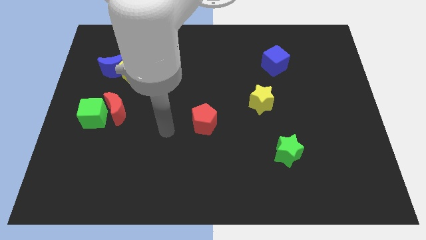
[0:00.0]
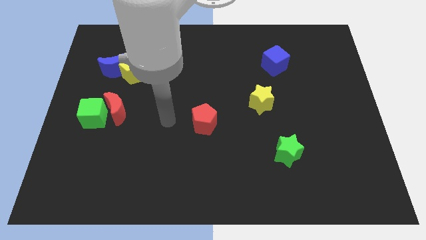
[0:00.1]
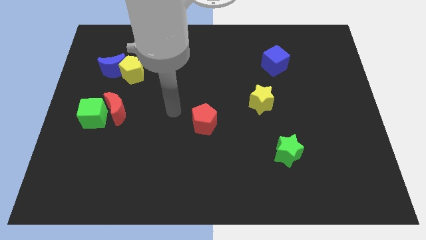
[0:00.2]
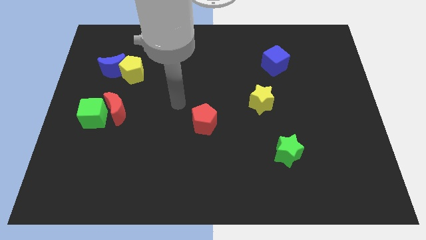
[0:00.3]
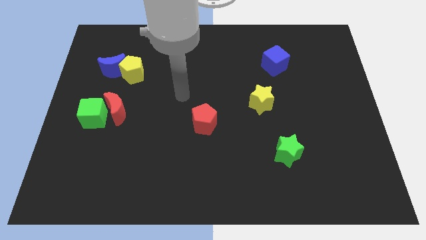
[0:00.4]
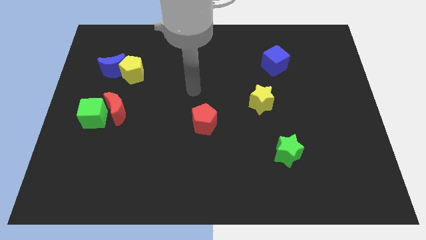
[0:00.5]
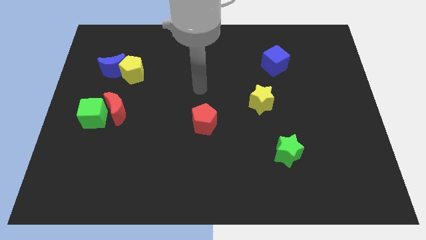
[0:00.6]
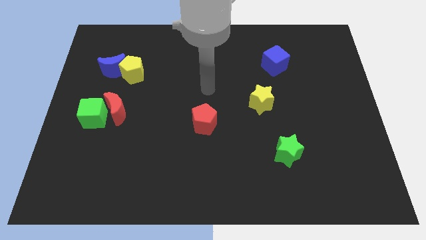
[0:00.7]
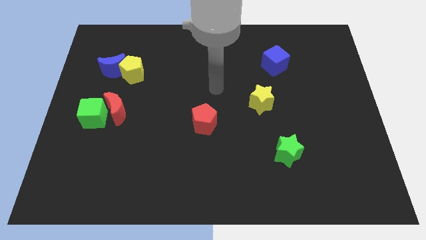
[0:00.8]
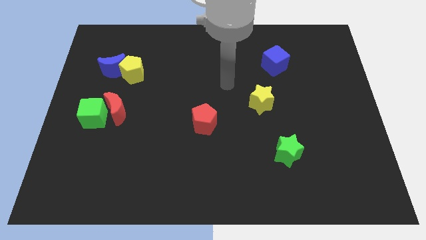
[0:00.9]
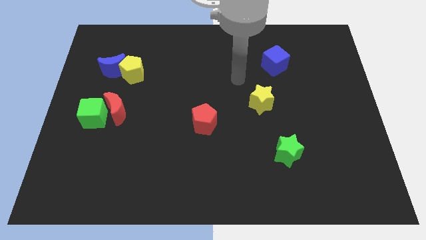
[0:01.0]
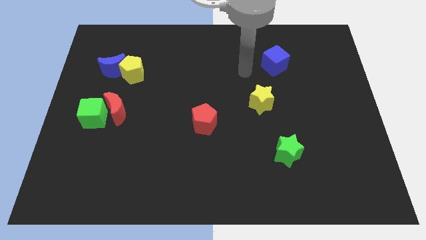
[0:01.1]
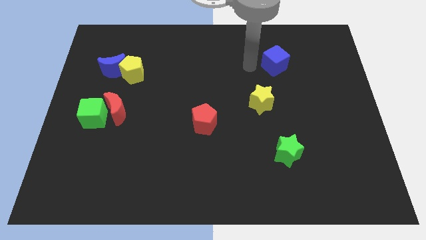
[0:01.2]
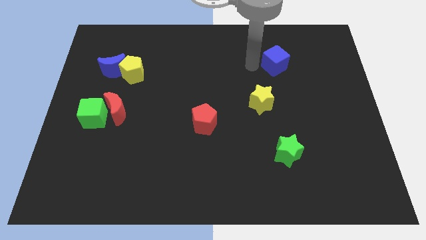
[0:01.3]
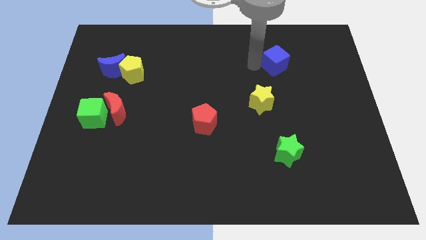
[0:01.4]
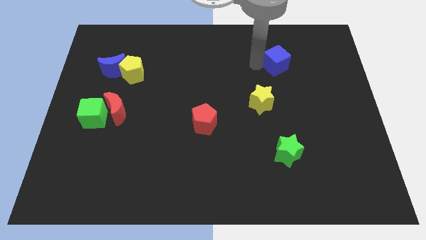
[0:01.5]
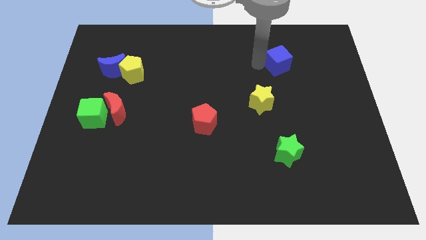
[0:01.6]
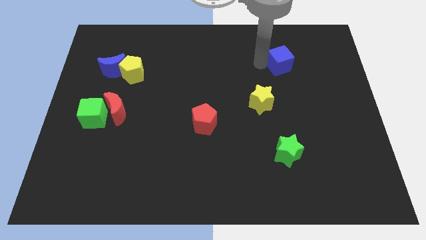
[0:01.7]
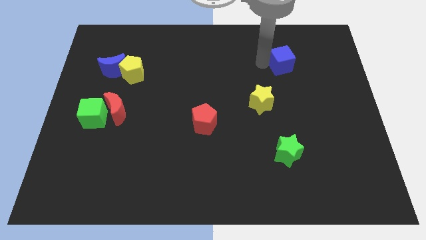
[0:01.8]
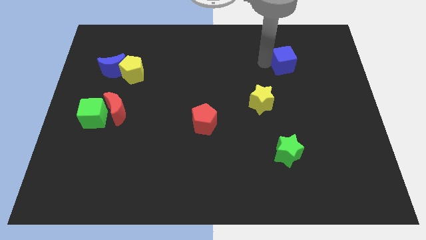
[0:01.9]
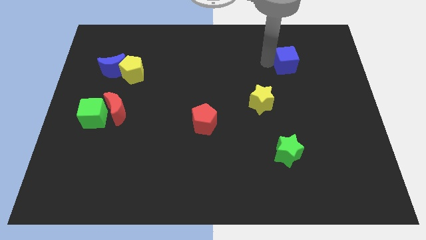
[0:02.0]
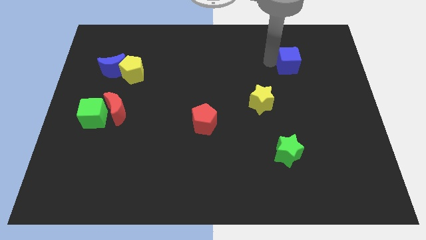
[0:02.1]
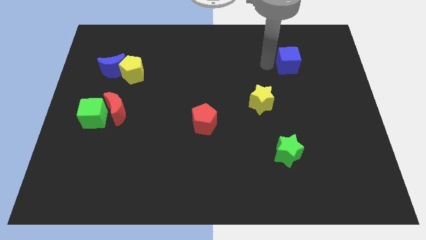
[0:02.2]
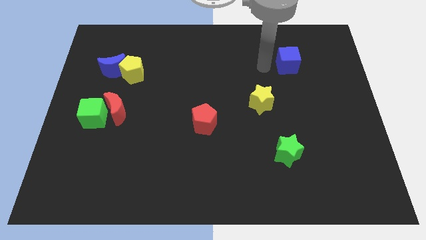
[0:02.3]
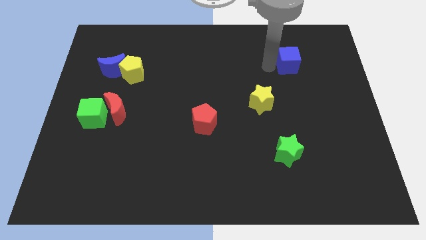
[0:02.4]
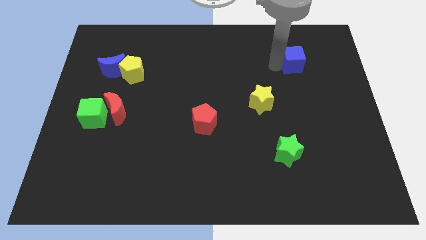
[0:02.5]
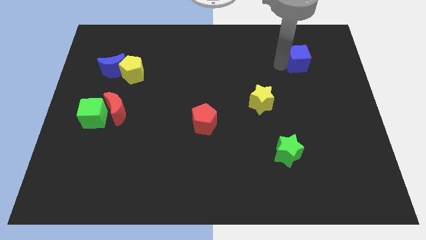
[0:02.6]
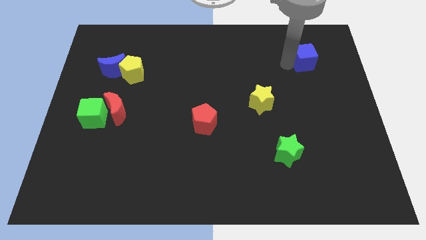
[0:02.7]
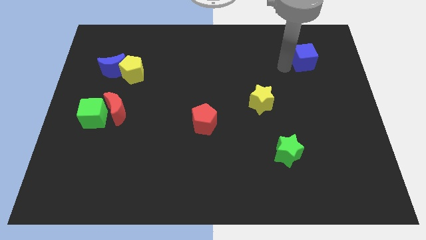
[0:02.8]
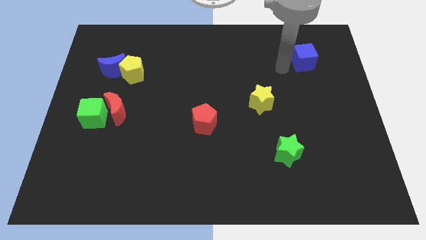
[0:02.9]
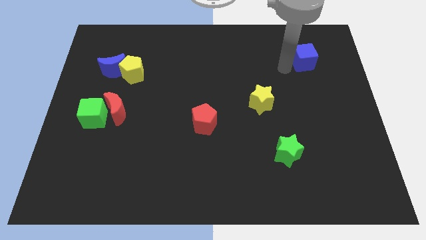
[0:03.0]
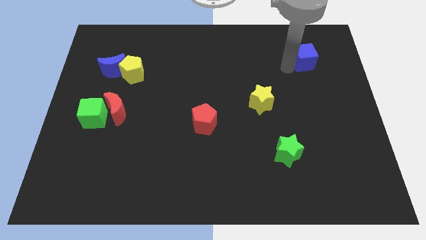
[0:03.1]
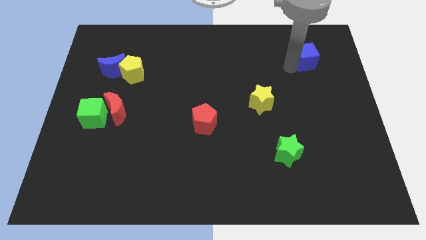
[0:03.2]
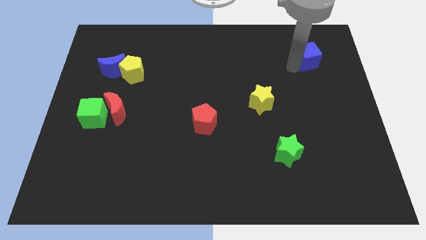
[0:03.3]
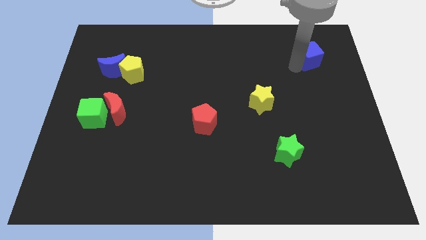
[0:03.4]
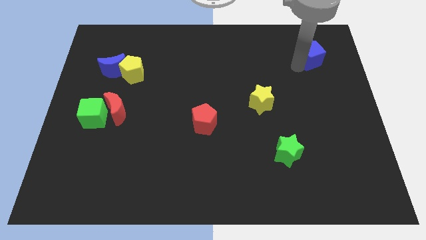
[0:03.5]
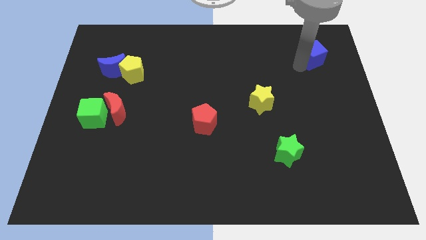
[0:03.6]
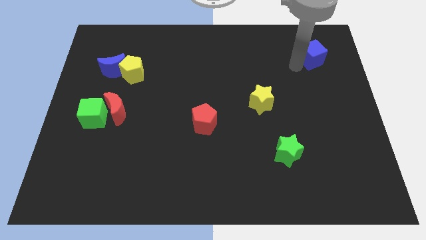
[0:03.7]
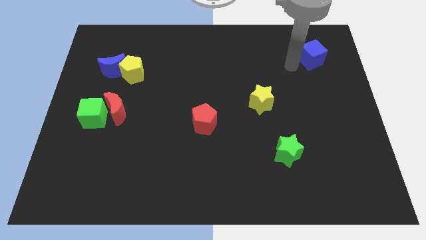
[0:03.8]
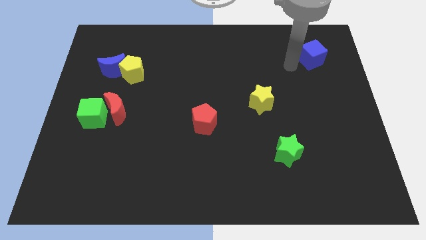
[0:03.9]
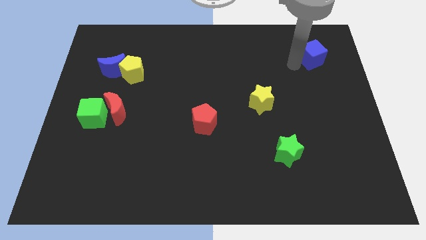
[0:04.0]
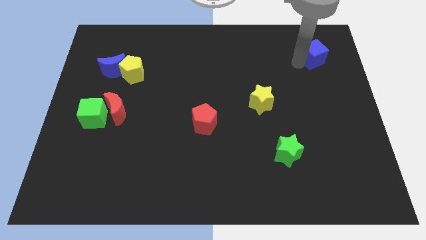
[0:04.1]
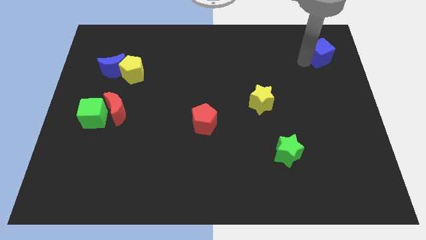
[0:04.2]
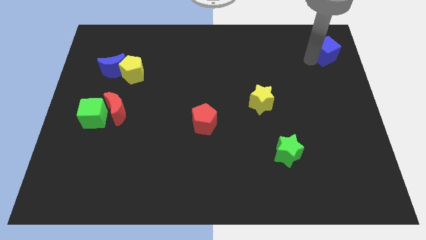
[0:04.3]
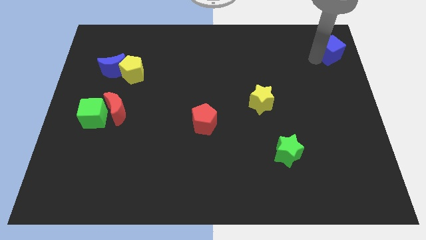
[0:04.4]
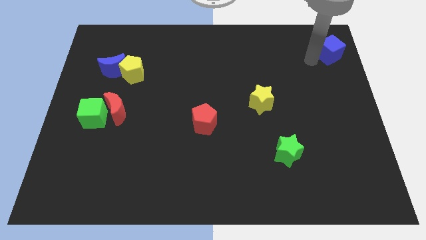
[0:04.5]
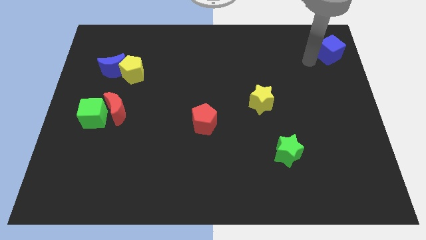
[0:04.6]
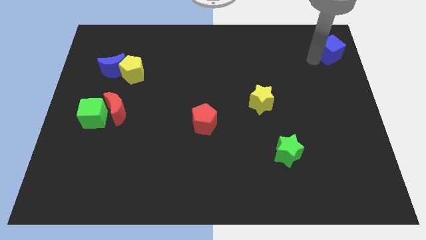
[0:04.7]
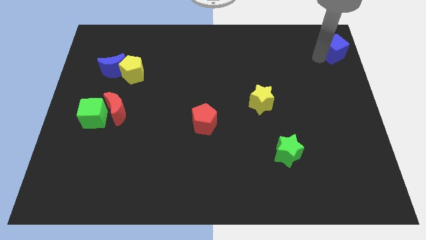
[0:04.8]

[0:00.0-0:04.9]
slide the blue cube to the upper right corner

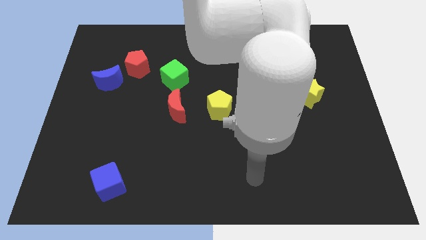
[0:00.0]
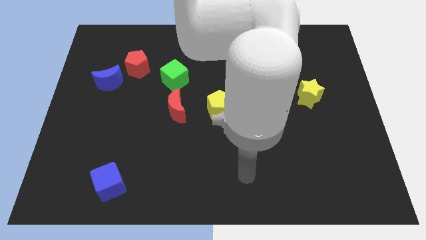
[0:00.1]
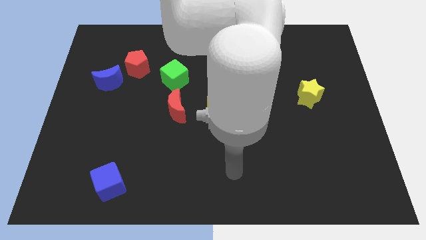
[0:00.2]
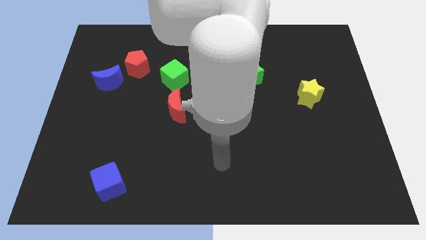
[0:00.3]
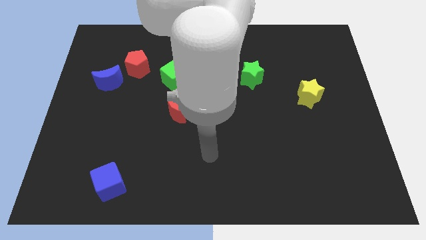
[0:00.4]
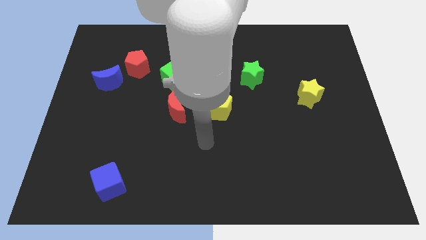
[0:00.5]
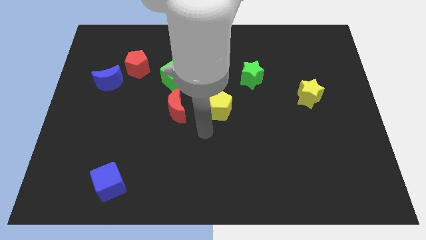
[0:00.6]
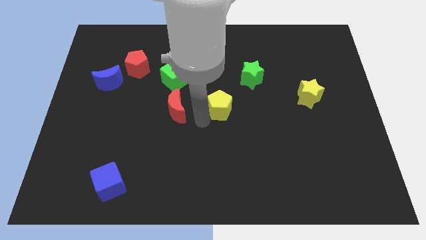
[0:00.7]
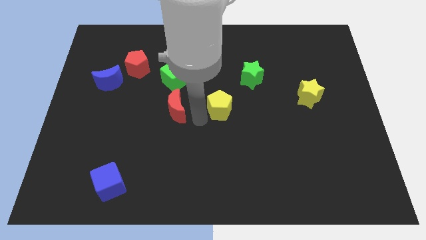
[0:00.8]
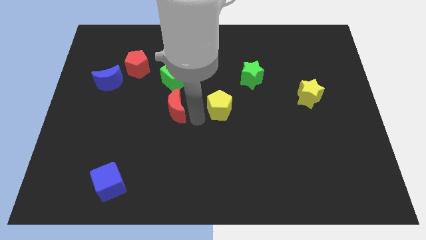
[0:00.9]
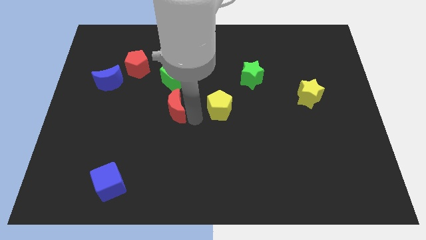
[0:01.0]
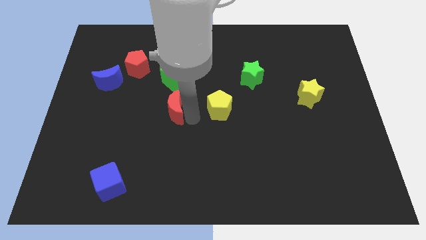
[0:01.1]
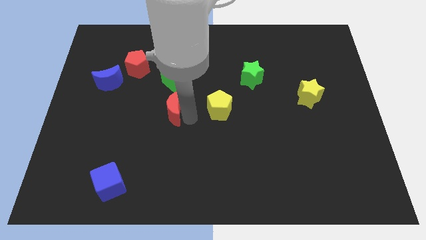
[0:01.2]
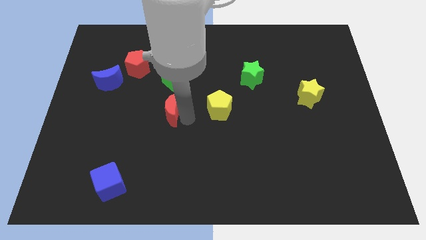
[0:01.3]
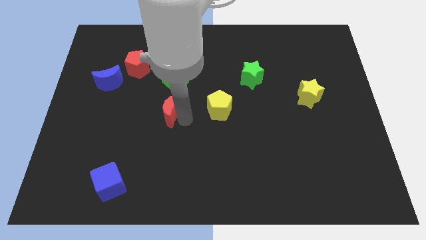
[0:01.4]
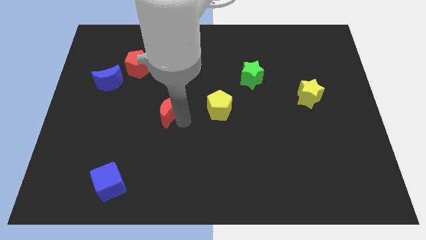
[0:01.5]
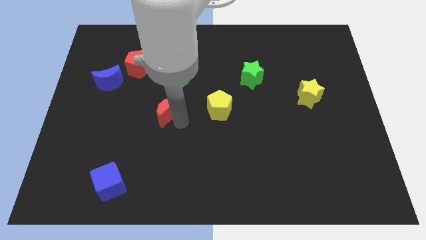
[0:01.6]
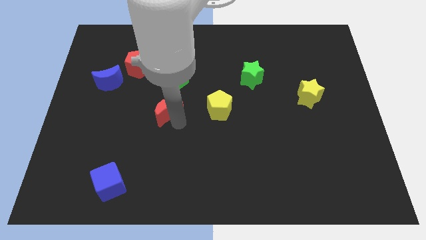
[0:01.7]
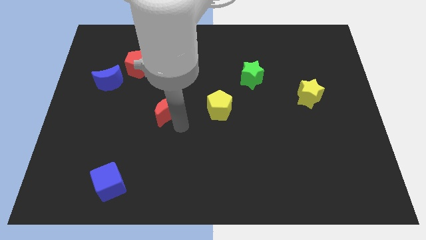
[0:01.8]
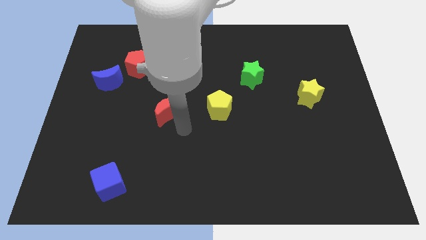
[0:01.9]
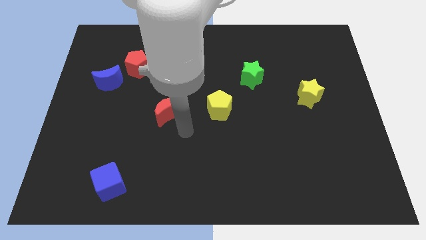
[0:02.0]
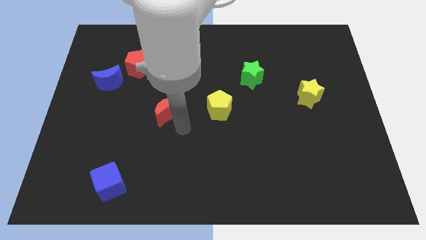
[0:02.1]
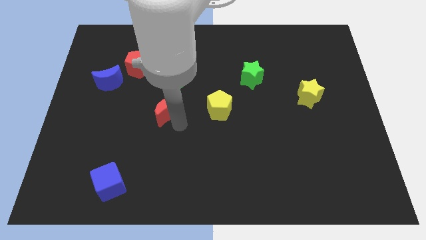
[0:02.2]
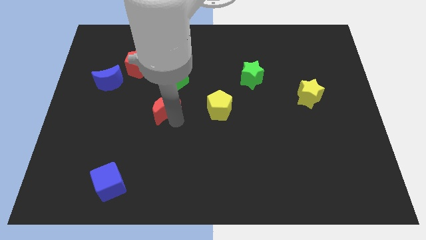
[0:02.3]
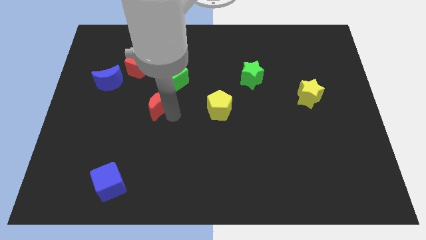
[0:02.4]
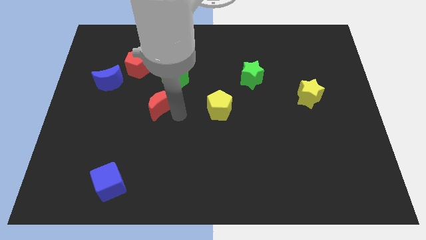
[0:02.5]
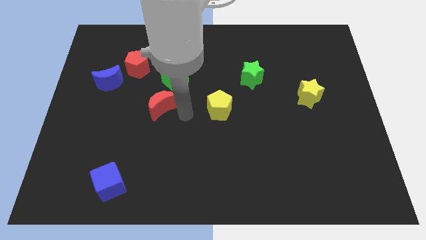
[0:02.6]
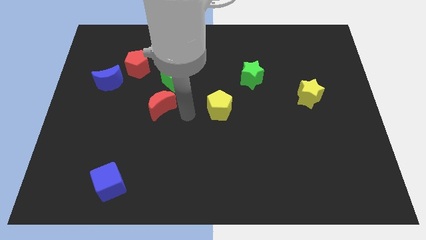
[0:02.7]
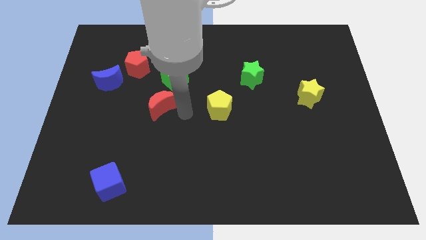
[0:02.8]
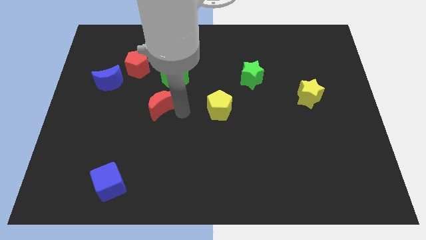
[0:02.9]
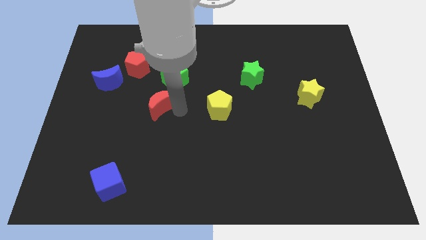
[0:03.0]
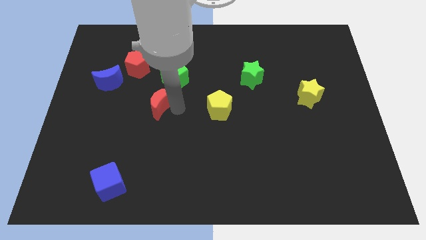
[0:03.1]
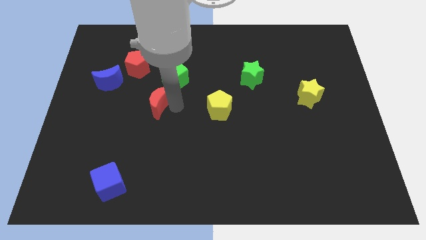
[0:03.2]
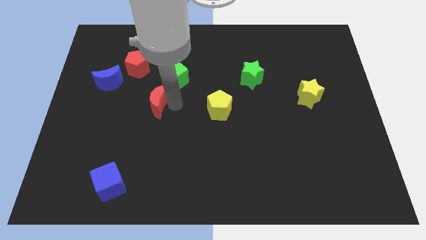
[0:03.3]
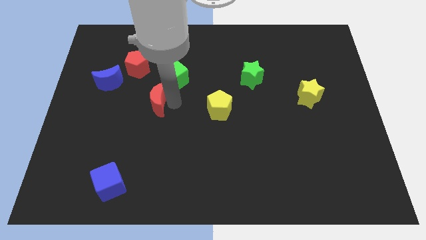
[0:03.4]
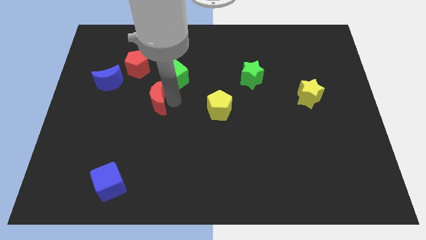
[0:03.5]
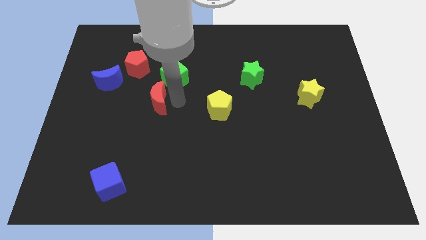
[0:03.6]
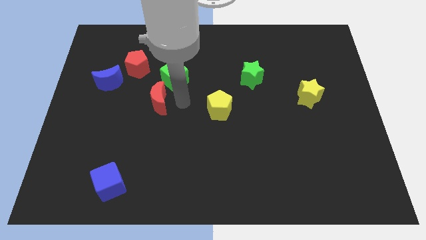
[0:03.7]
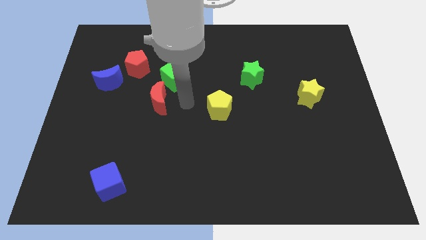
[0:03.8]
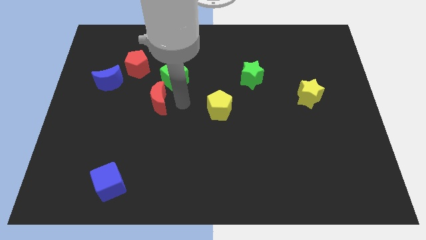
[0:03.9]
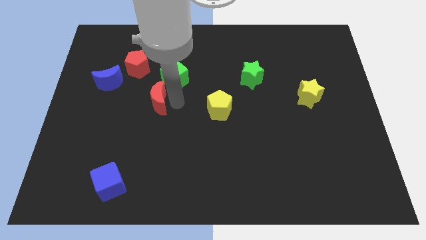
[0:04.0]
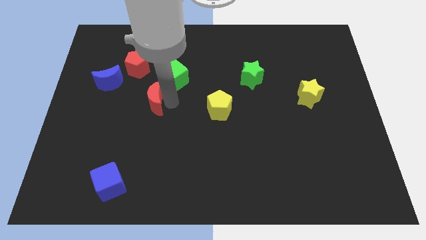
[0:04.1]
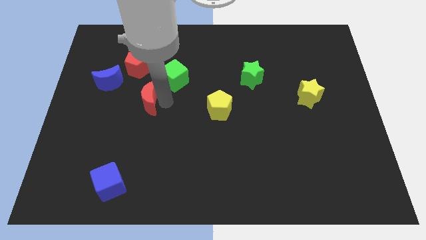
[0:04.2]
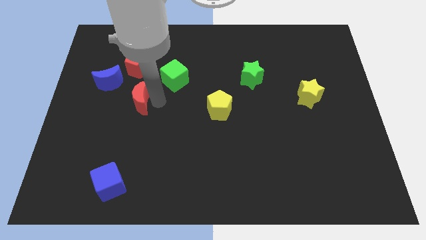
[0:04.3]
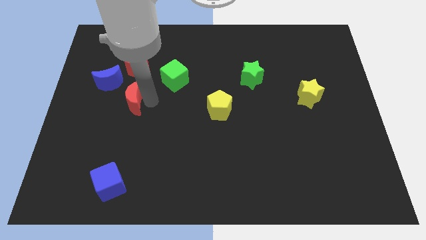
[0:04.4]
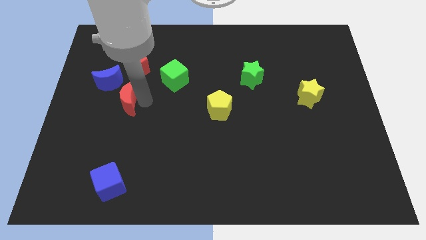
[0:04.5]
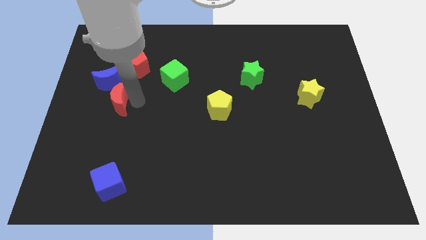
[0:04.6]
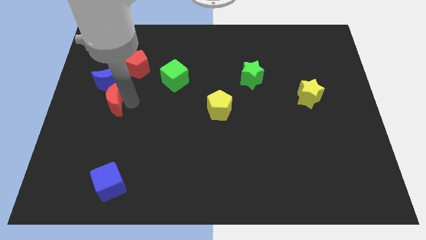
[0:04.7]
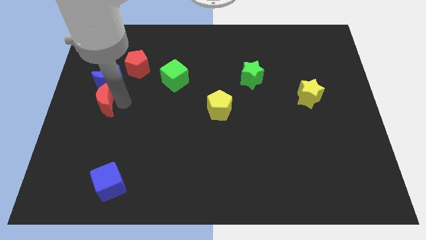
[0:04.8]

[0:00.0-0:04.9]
slide the red moon to the left side of the board
